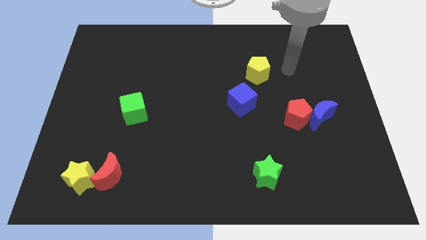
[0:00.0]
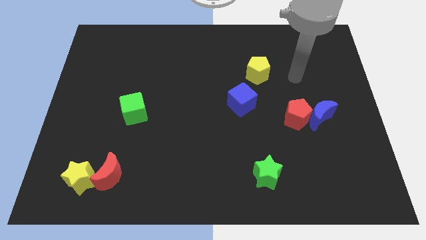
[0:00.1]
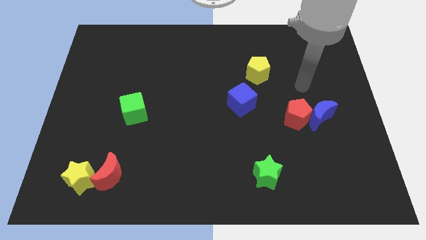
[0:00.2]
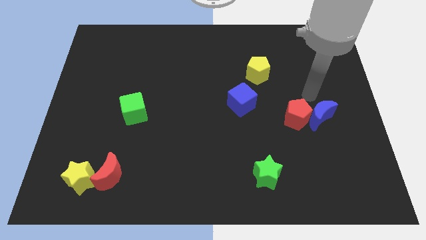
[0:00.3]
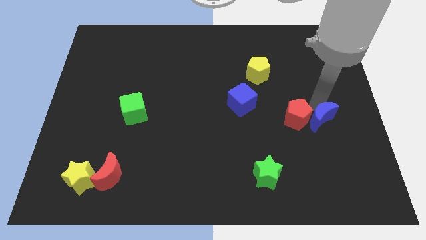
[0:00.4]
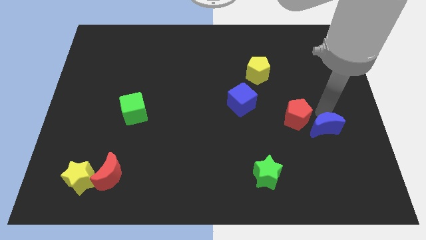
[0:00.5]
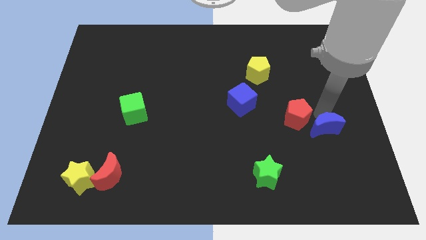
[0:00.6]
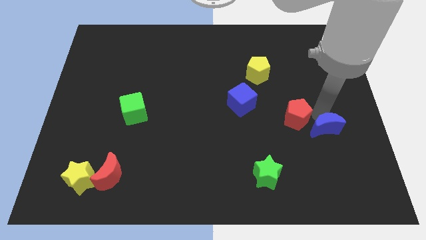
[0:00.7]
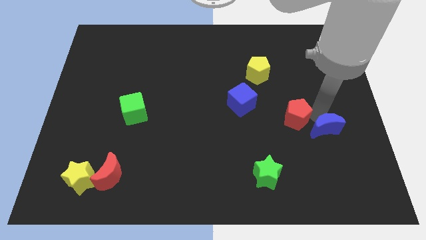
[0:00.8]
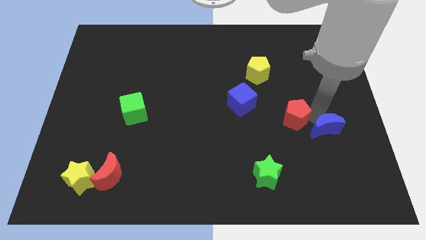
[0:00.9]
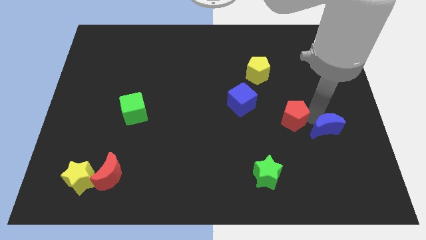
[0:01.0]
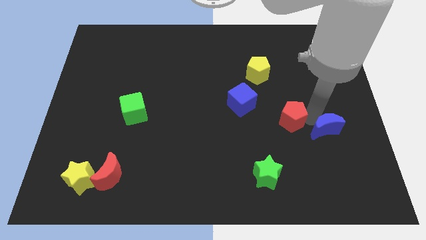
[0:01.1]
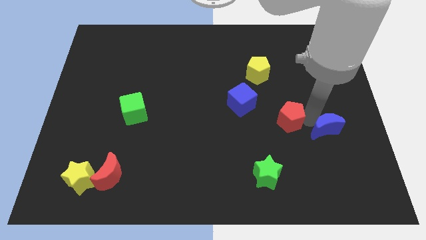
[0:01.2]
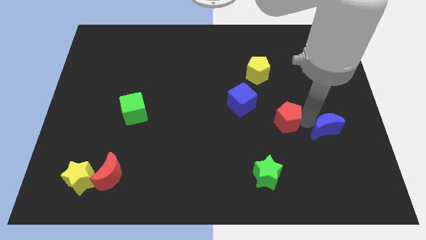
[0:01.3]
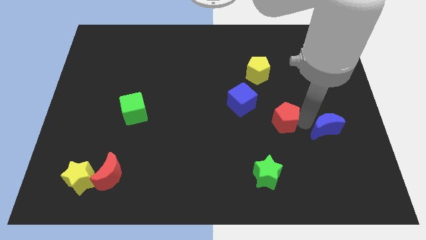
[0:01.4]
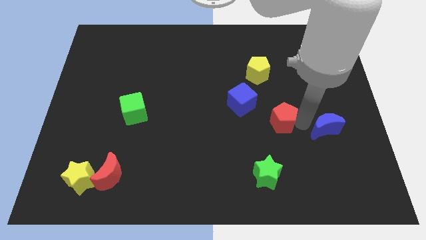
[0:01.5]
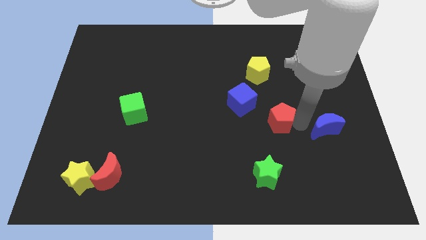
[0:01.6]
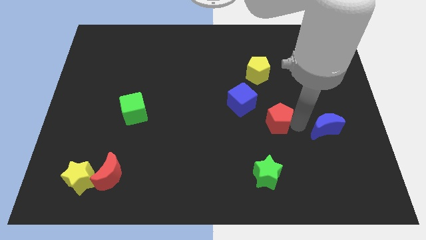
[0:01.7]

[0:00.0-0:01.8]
separate the red pentagon from the blue moon

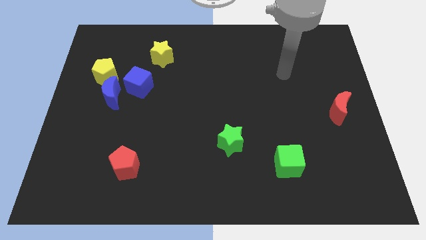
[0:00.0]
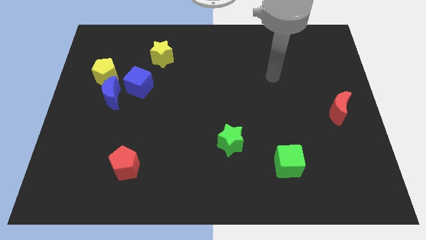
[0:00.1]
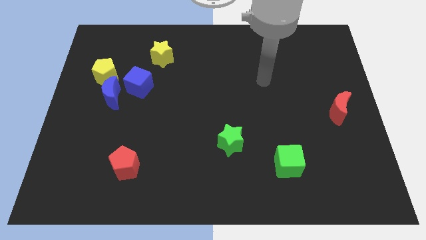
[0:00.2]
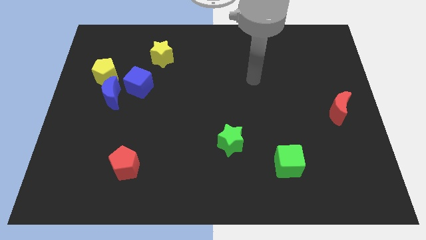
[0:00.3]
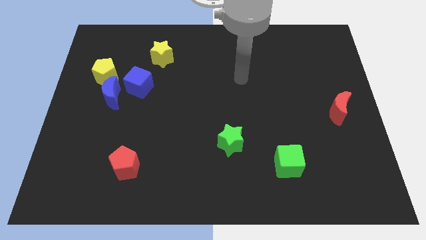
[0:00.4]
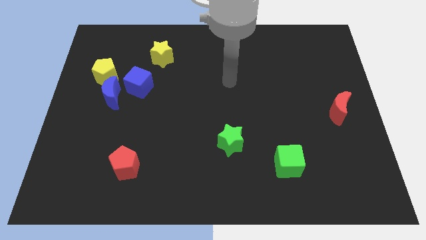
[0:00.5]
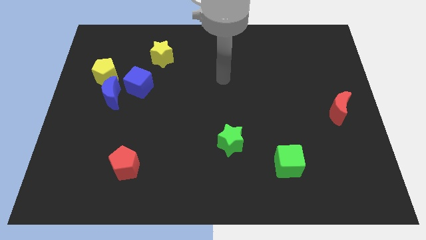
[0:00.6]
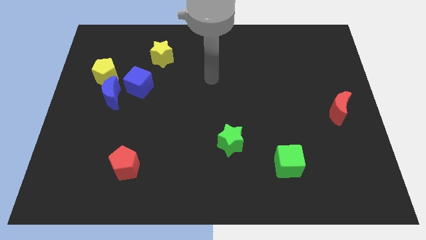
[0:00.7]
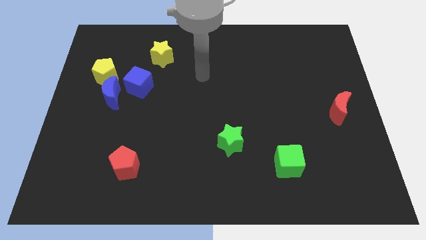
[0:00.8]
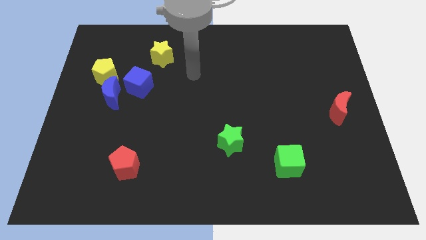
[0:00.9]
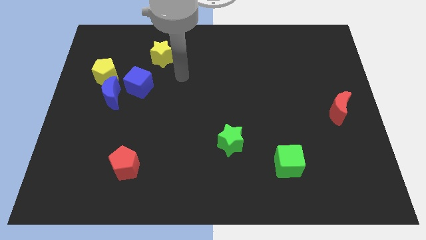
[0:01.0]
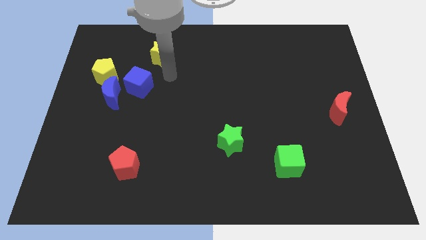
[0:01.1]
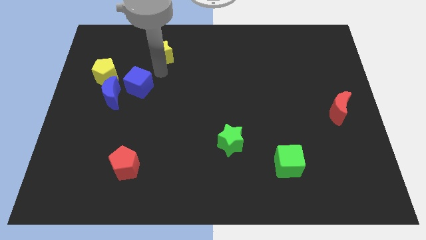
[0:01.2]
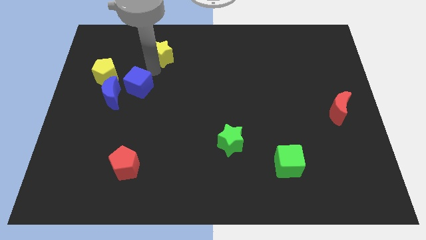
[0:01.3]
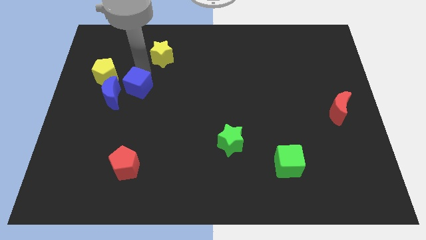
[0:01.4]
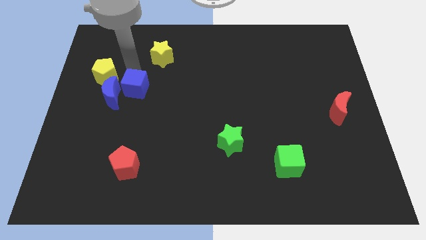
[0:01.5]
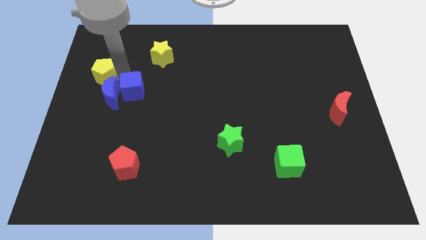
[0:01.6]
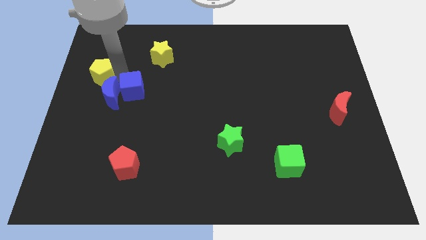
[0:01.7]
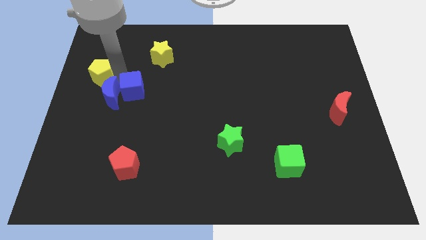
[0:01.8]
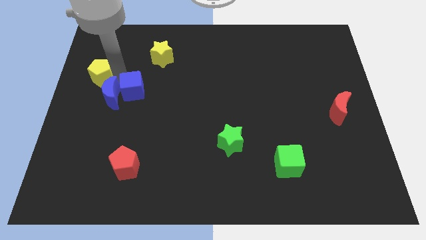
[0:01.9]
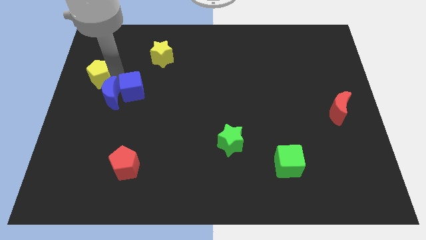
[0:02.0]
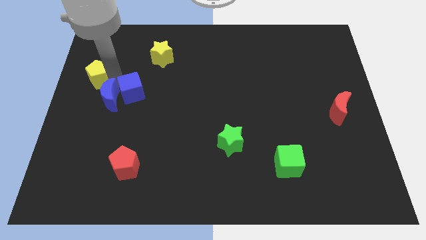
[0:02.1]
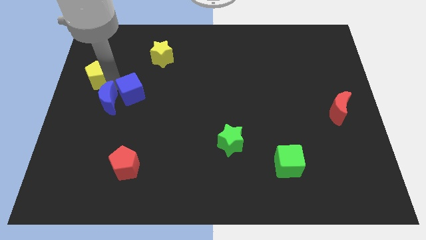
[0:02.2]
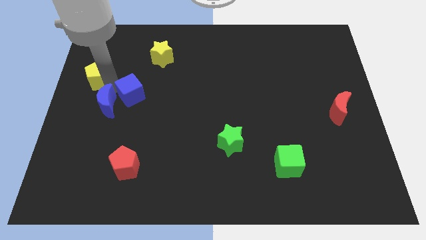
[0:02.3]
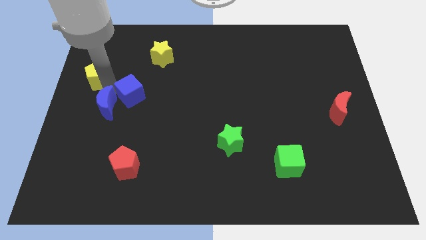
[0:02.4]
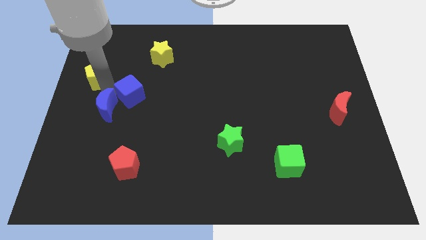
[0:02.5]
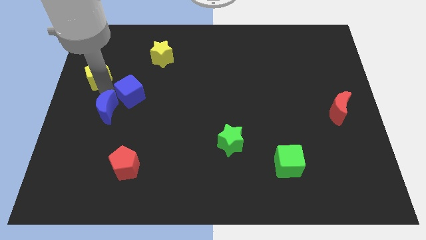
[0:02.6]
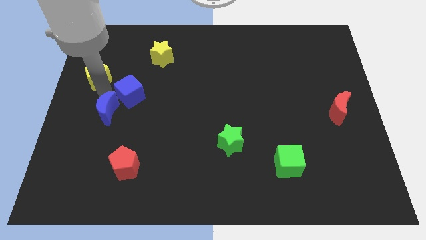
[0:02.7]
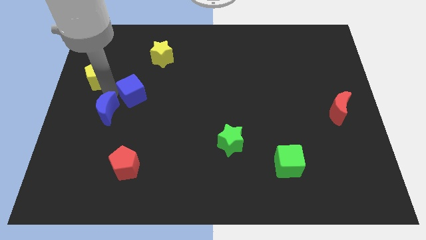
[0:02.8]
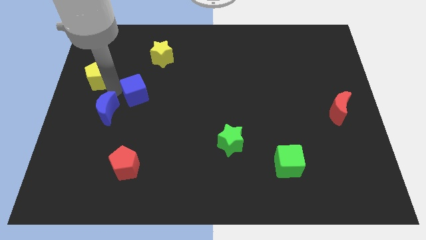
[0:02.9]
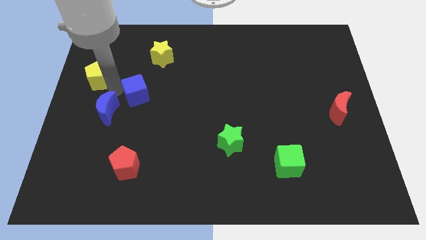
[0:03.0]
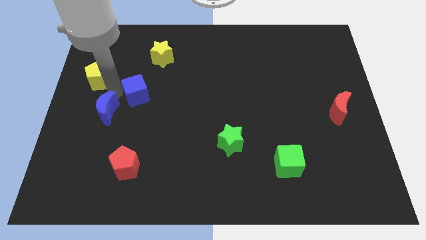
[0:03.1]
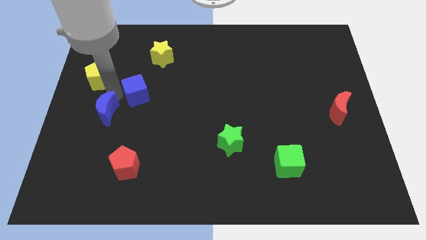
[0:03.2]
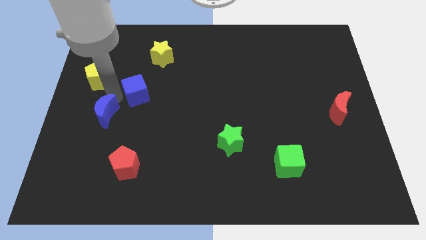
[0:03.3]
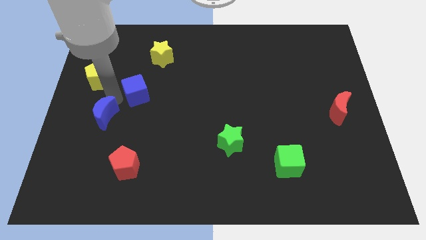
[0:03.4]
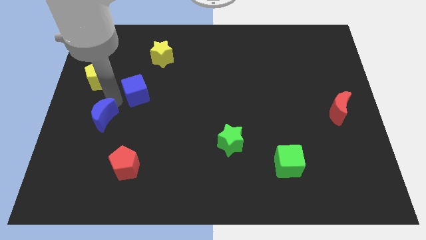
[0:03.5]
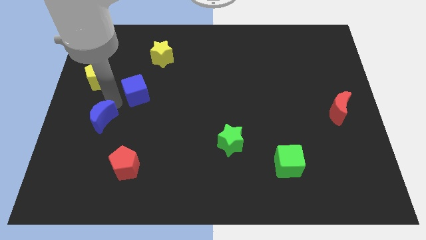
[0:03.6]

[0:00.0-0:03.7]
separate the blue moon from the blue cube and yellow pentagon

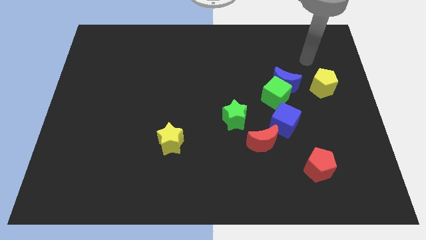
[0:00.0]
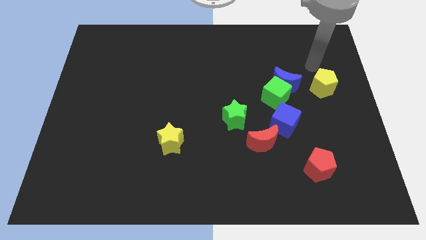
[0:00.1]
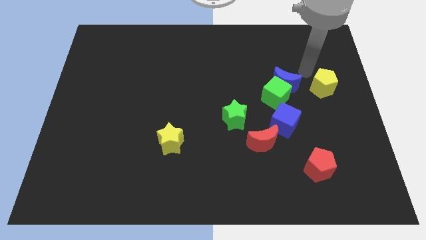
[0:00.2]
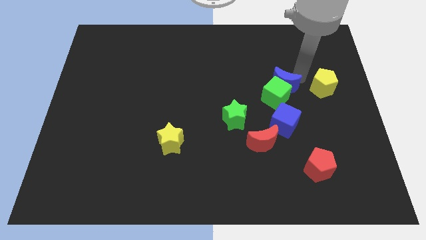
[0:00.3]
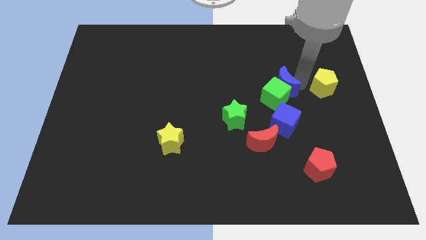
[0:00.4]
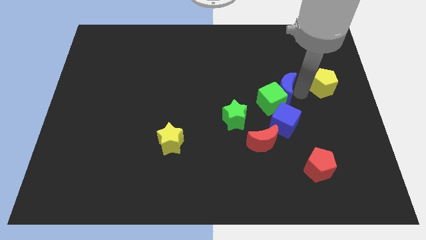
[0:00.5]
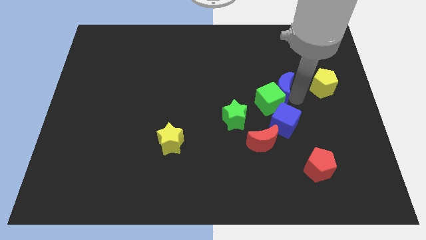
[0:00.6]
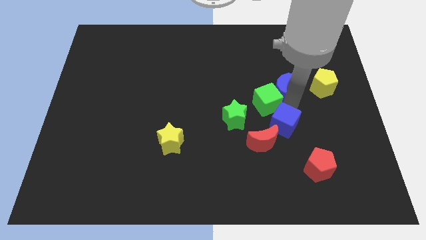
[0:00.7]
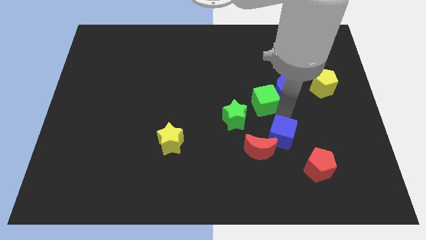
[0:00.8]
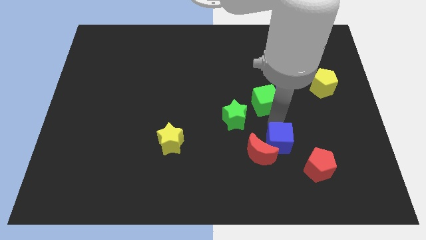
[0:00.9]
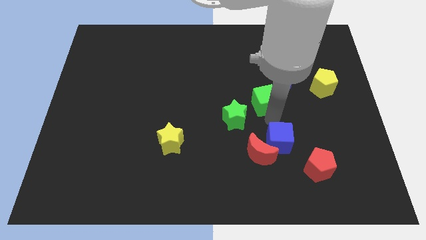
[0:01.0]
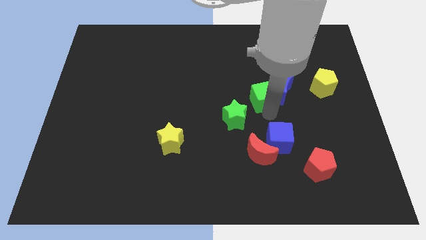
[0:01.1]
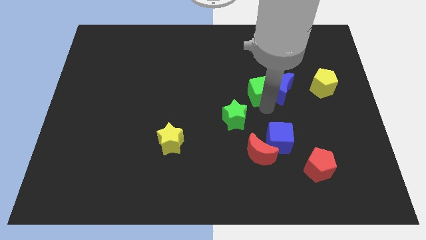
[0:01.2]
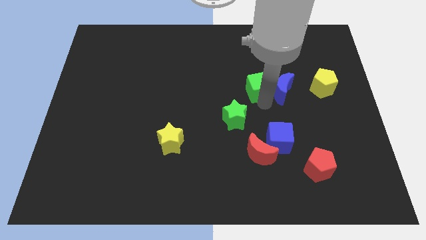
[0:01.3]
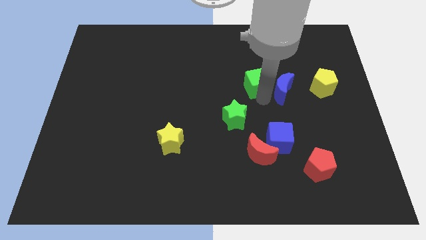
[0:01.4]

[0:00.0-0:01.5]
separate the green cube from the blue moon and blue cube

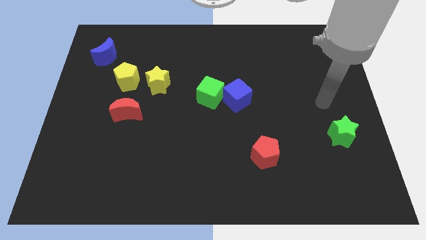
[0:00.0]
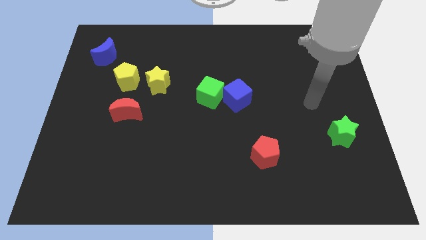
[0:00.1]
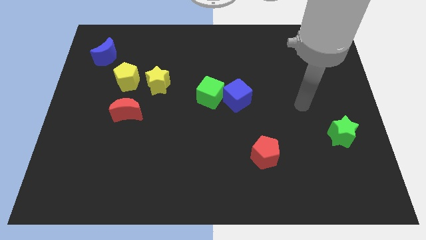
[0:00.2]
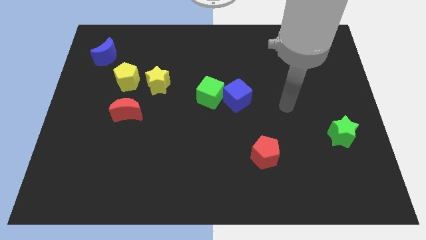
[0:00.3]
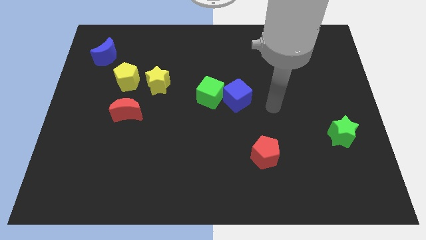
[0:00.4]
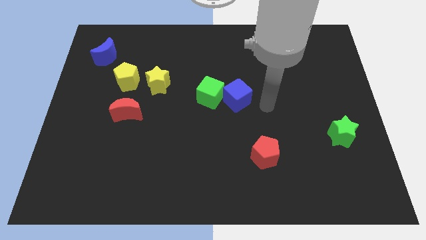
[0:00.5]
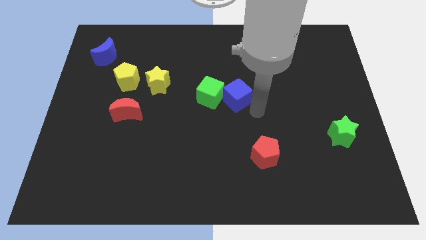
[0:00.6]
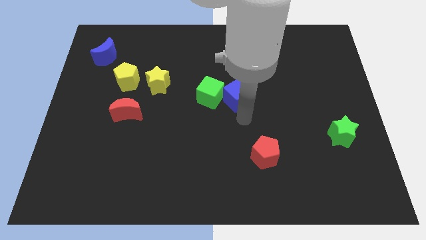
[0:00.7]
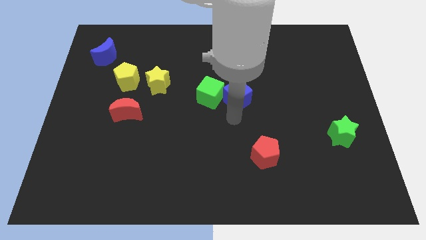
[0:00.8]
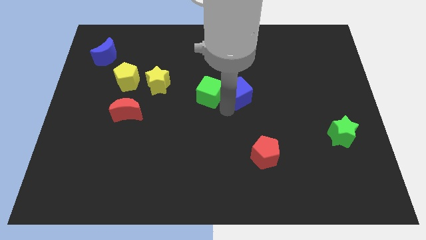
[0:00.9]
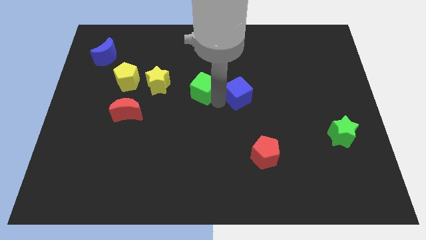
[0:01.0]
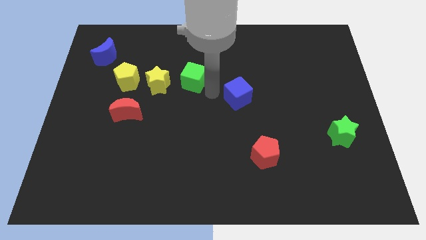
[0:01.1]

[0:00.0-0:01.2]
separate the blue cube from the green cube

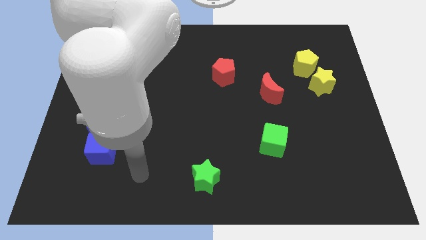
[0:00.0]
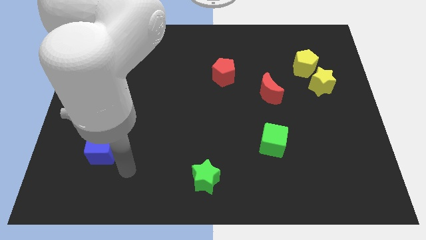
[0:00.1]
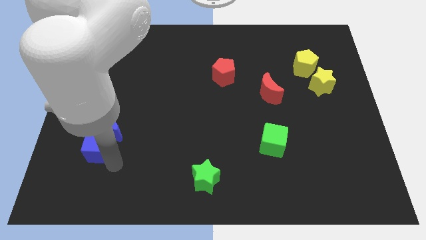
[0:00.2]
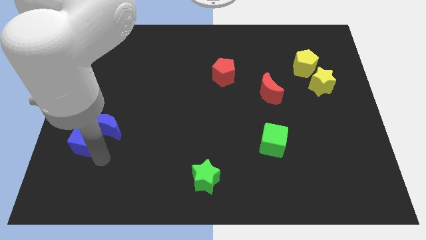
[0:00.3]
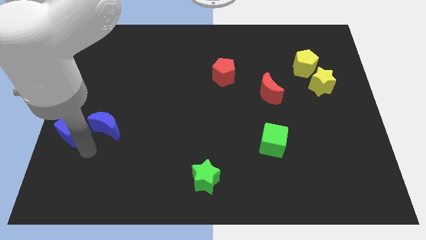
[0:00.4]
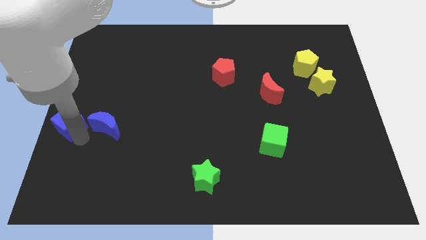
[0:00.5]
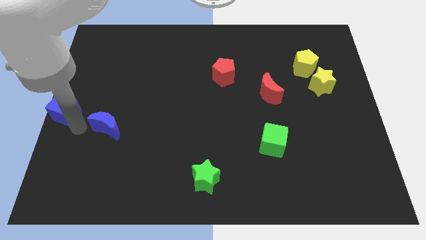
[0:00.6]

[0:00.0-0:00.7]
separate the blue moon from the blue cube

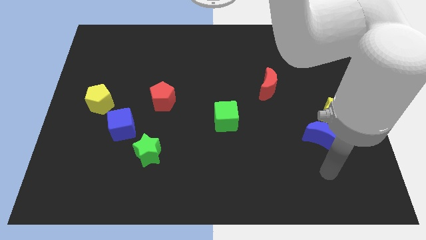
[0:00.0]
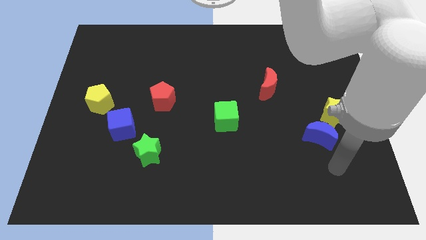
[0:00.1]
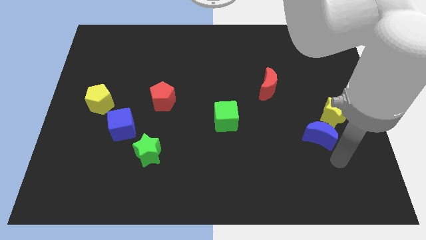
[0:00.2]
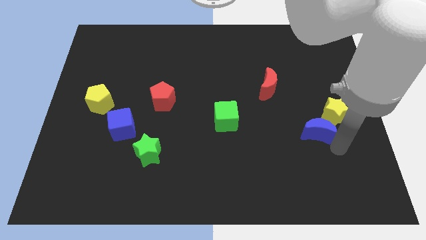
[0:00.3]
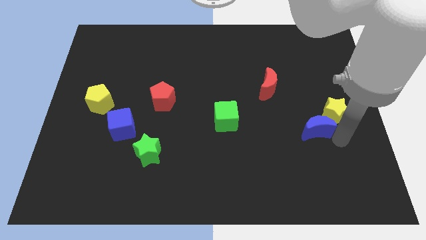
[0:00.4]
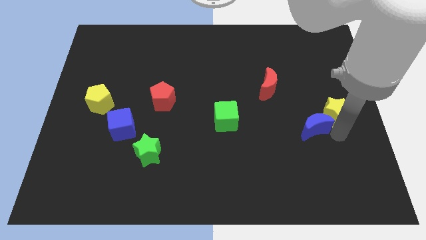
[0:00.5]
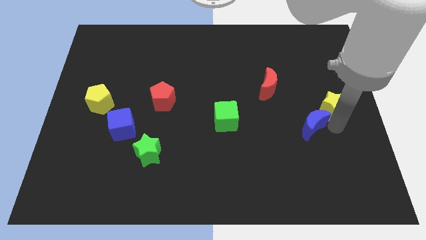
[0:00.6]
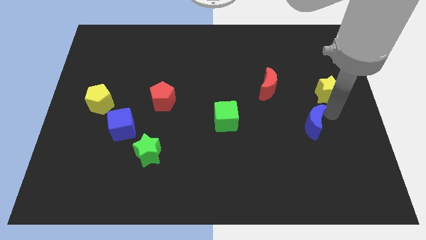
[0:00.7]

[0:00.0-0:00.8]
pull the blue moon apart from the yellow star
